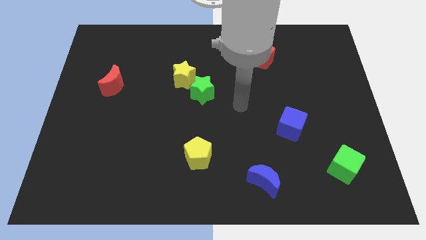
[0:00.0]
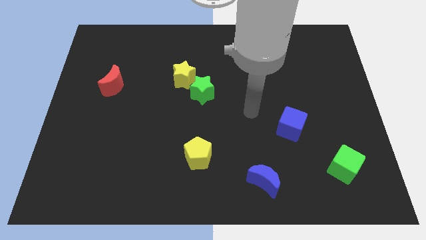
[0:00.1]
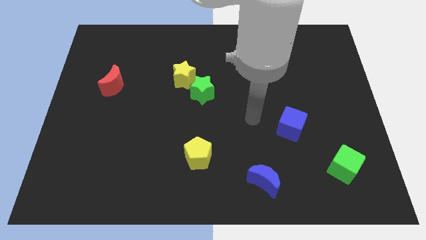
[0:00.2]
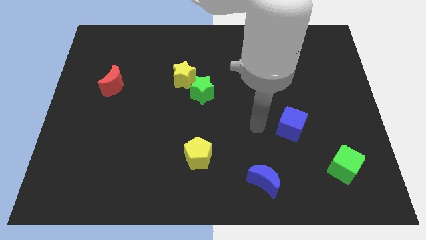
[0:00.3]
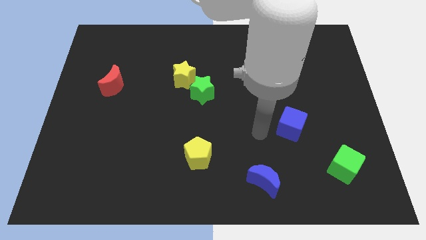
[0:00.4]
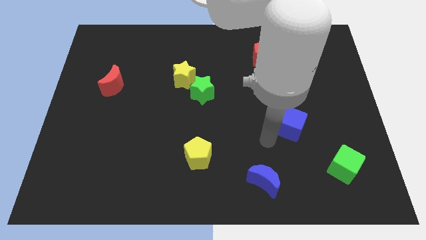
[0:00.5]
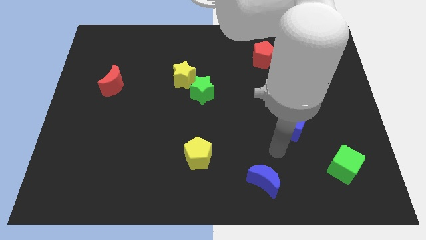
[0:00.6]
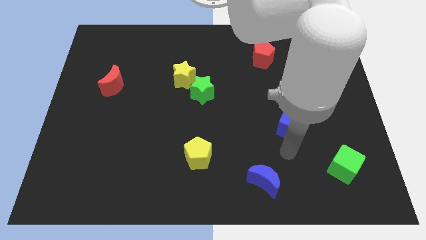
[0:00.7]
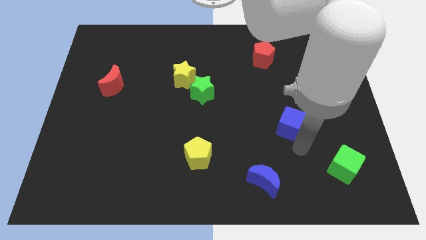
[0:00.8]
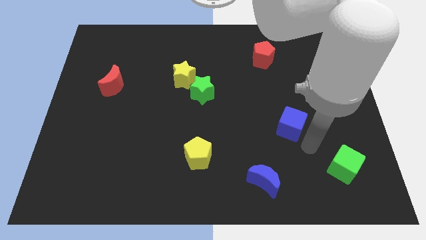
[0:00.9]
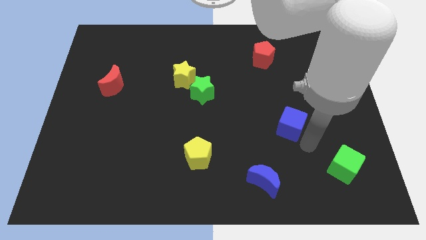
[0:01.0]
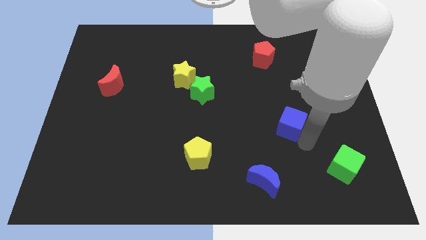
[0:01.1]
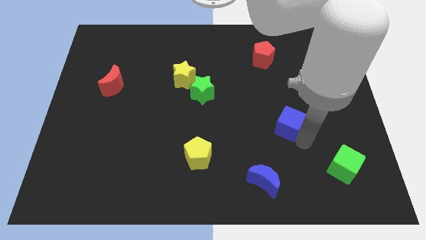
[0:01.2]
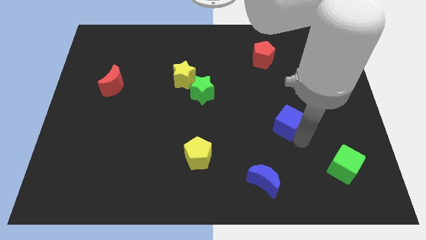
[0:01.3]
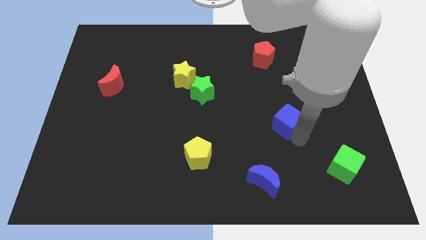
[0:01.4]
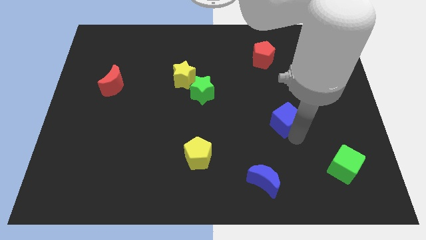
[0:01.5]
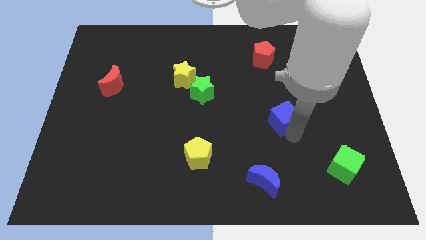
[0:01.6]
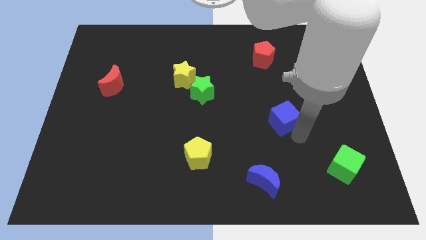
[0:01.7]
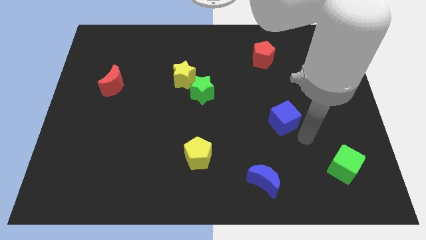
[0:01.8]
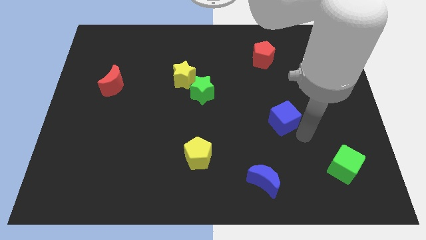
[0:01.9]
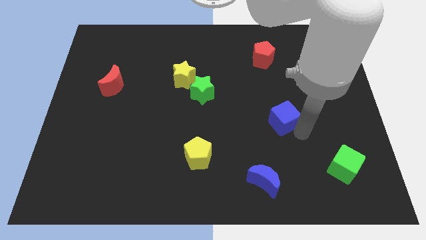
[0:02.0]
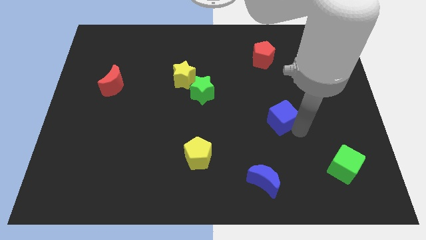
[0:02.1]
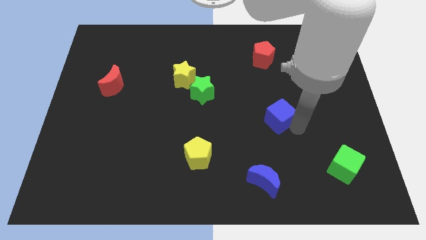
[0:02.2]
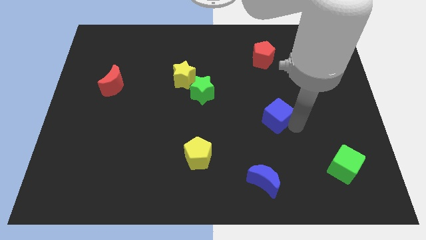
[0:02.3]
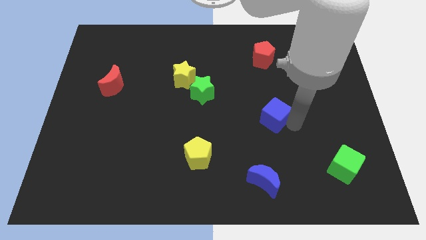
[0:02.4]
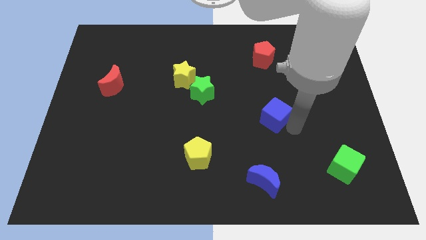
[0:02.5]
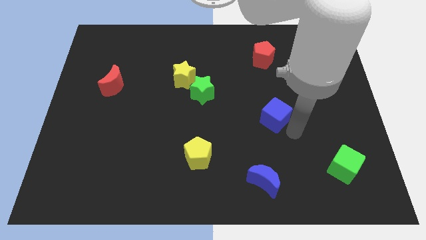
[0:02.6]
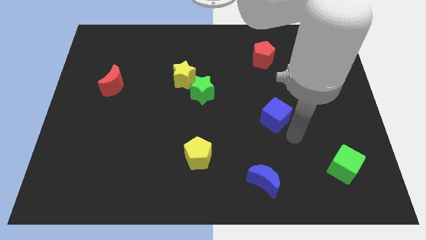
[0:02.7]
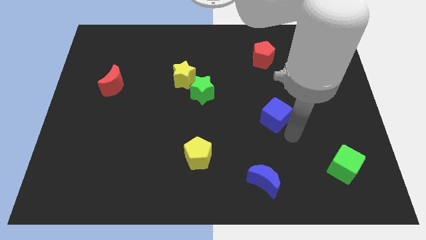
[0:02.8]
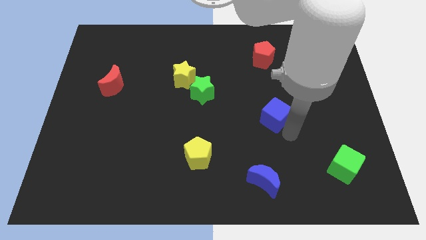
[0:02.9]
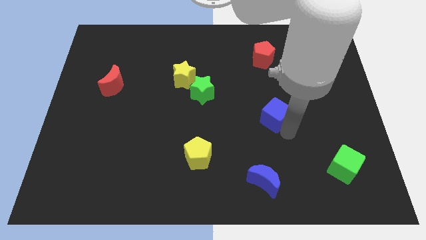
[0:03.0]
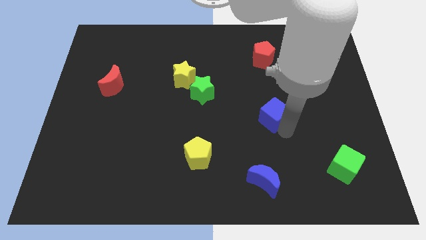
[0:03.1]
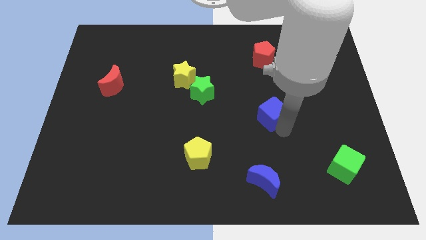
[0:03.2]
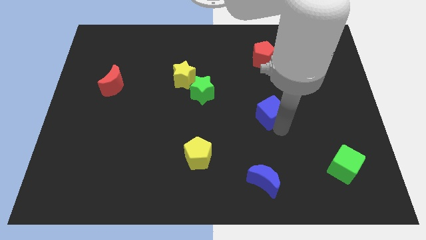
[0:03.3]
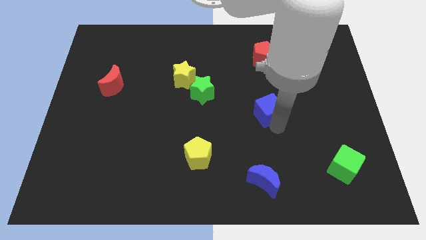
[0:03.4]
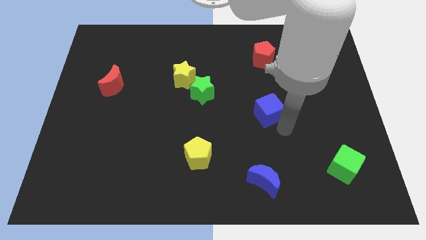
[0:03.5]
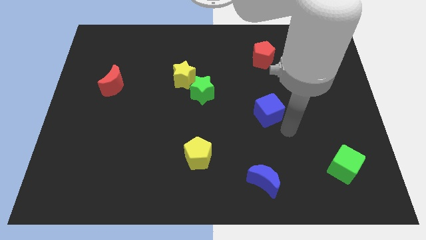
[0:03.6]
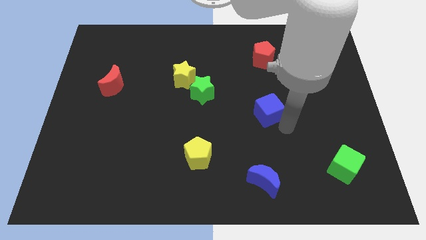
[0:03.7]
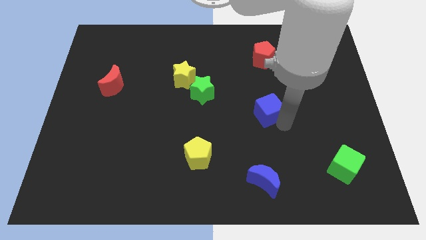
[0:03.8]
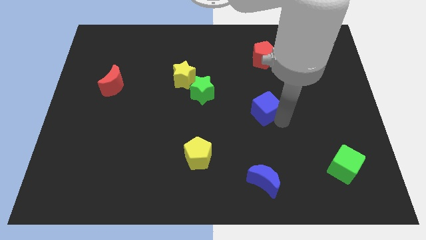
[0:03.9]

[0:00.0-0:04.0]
move the blue cube a bit upwards and then left

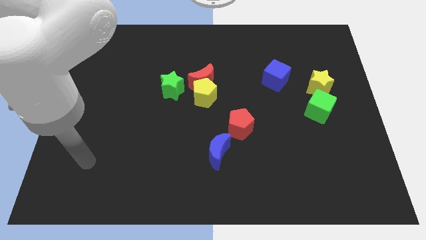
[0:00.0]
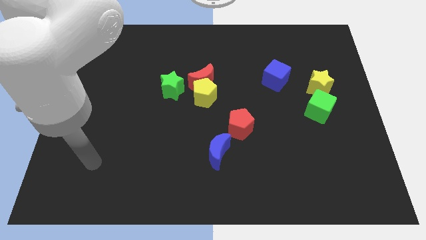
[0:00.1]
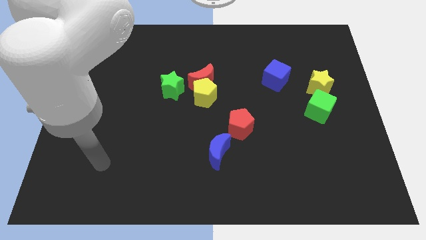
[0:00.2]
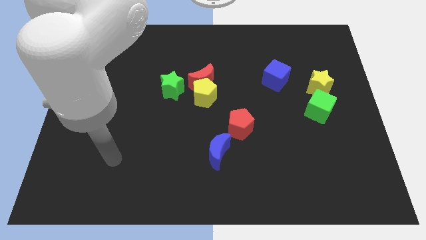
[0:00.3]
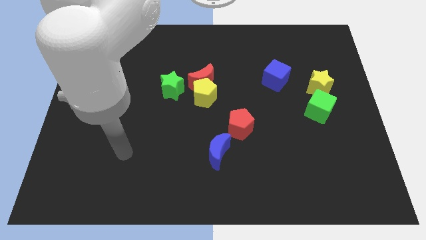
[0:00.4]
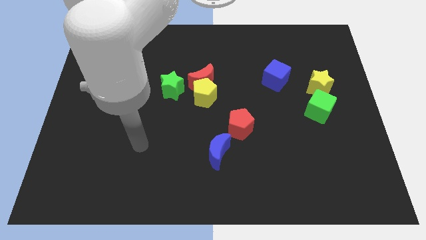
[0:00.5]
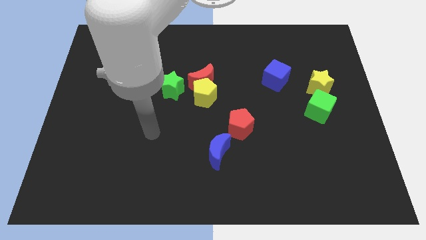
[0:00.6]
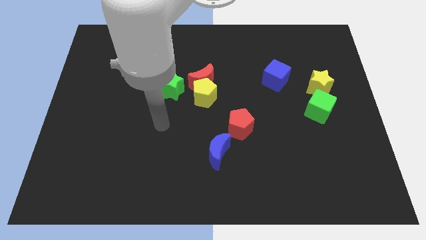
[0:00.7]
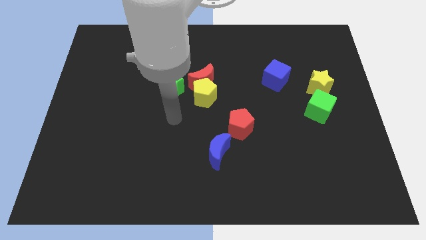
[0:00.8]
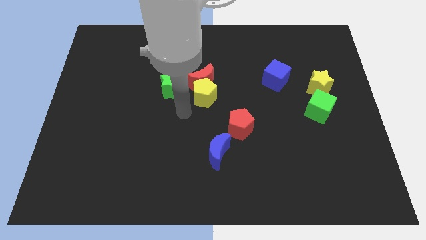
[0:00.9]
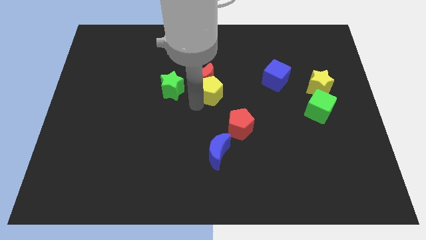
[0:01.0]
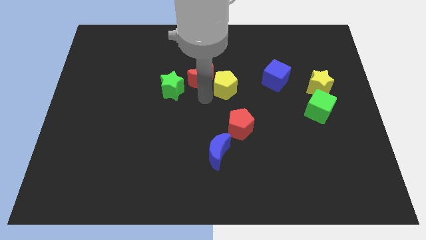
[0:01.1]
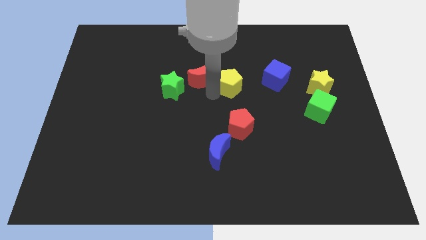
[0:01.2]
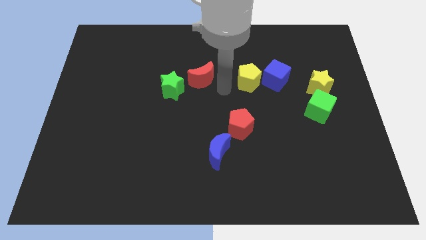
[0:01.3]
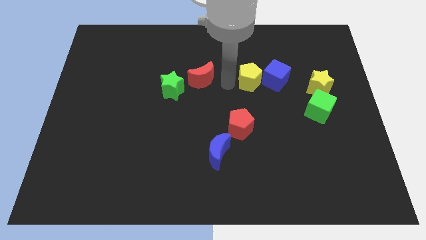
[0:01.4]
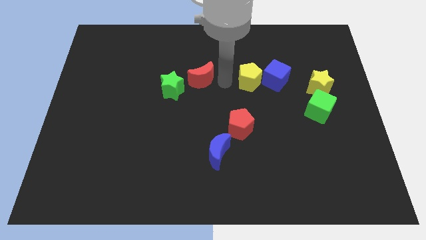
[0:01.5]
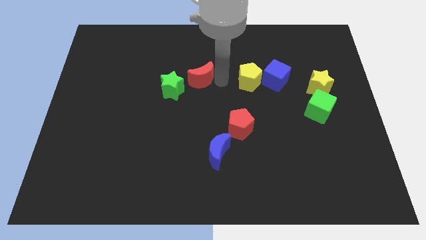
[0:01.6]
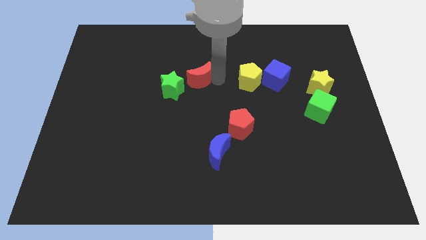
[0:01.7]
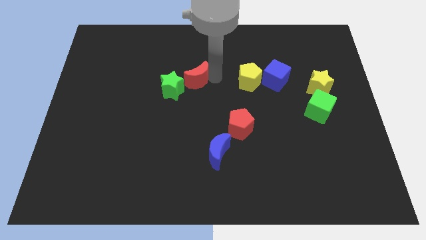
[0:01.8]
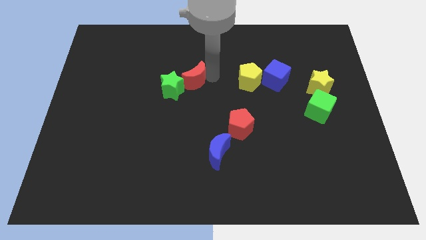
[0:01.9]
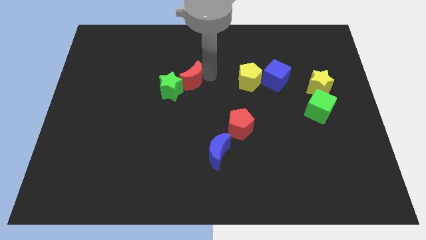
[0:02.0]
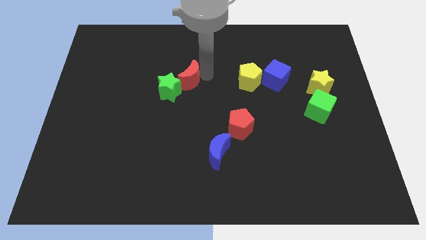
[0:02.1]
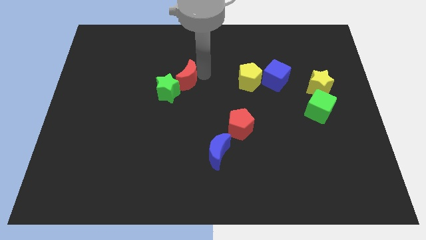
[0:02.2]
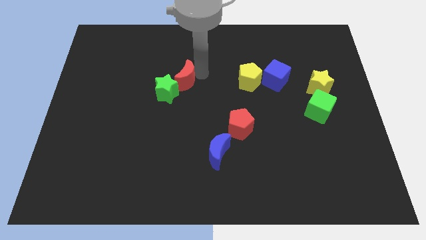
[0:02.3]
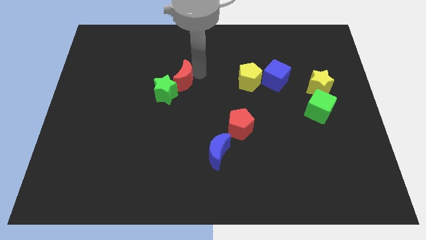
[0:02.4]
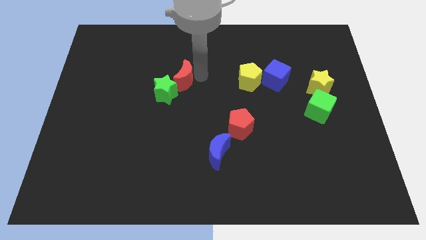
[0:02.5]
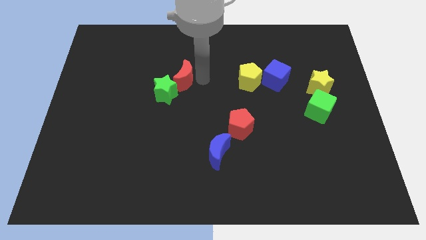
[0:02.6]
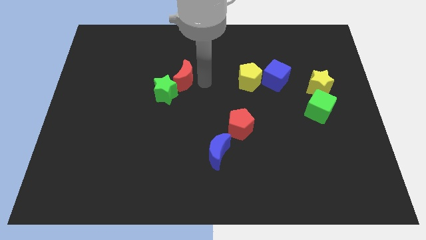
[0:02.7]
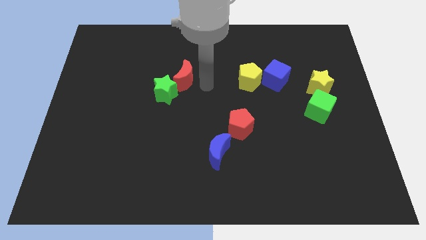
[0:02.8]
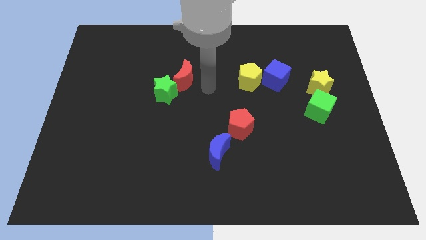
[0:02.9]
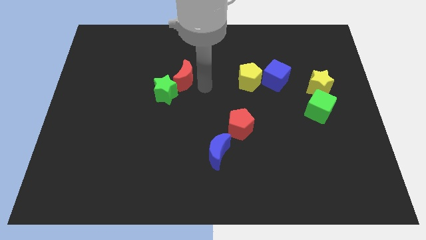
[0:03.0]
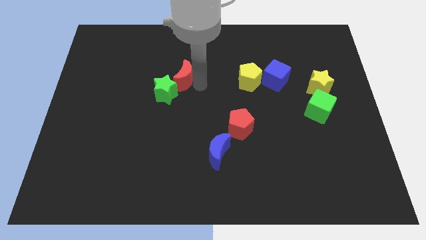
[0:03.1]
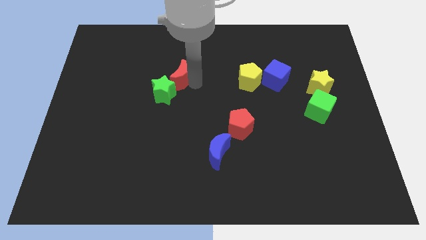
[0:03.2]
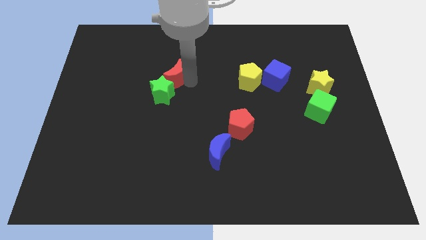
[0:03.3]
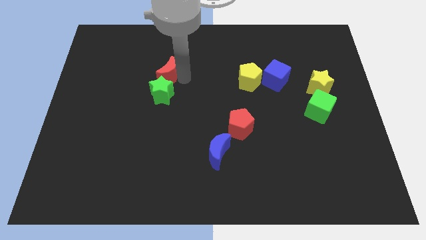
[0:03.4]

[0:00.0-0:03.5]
slide the red moon a little left

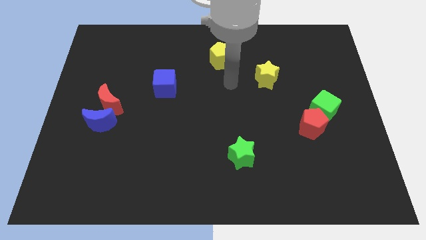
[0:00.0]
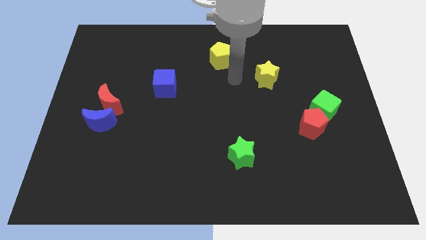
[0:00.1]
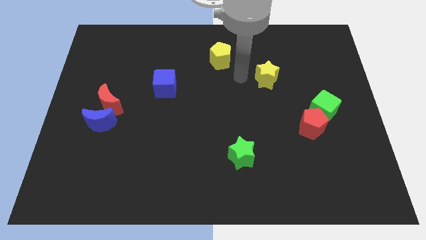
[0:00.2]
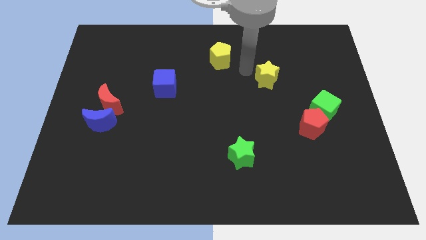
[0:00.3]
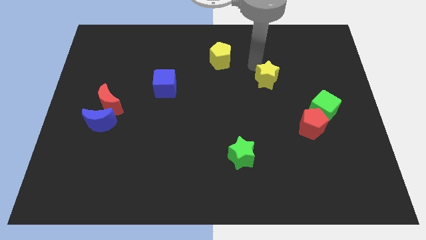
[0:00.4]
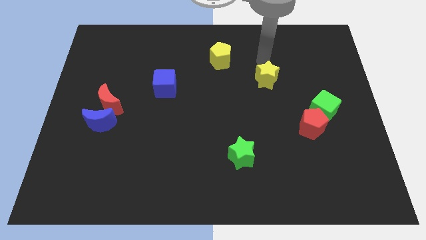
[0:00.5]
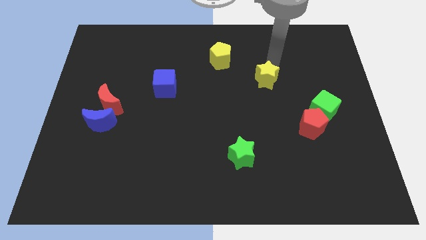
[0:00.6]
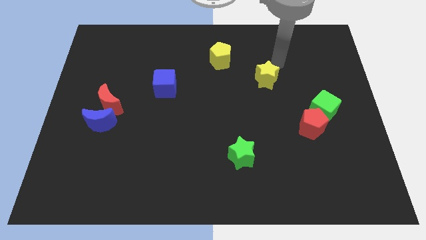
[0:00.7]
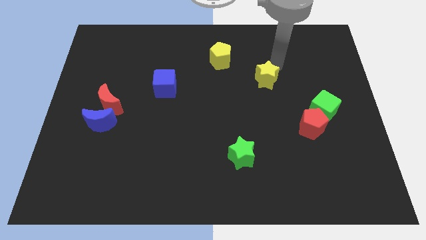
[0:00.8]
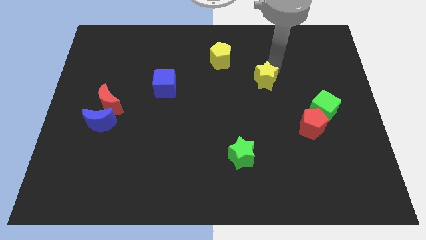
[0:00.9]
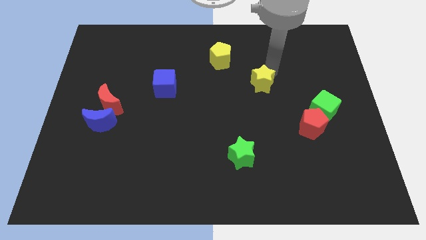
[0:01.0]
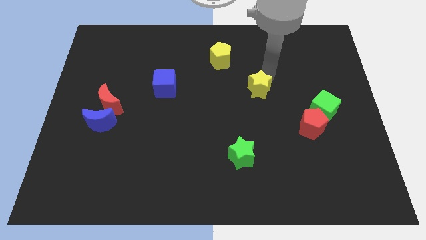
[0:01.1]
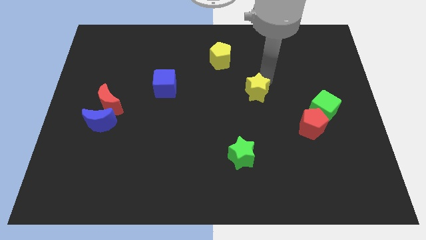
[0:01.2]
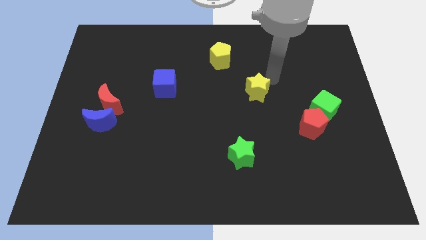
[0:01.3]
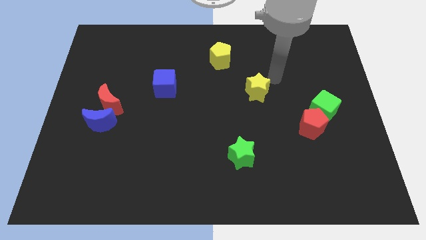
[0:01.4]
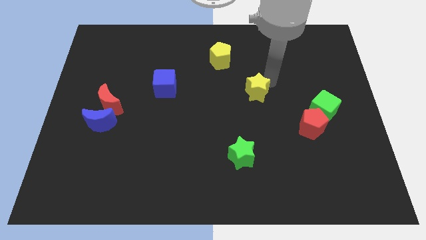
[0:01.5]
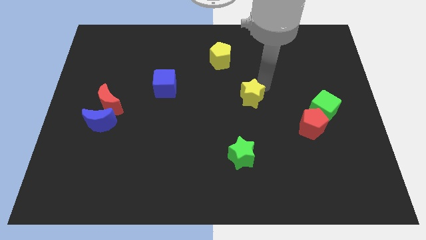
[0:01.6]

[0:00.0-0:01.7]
move the yellow star down and left diagonally somewhat
